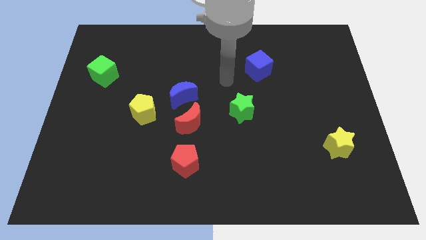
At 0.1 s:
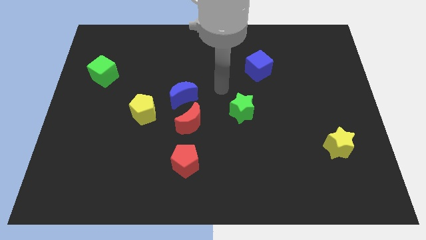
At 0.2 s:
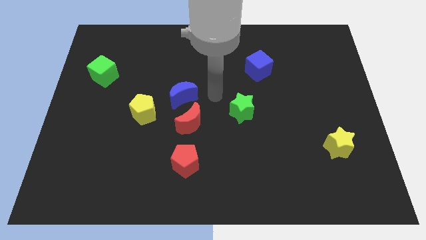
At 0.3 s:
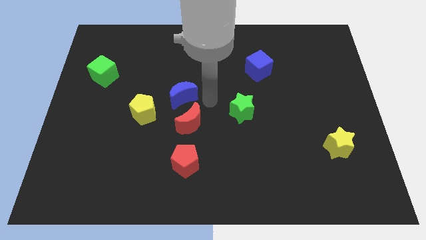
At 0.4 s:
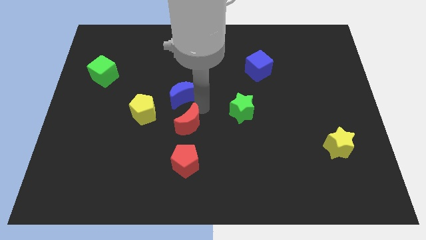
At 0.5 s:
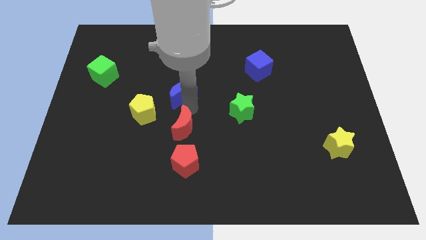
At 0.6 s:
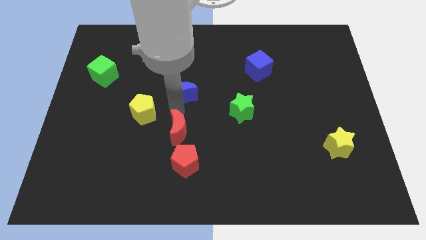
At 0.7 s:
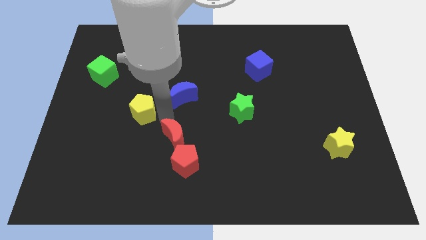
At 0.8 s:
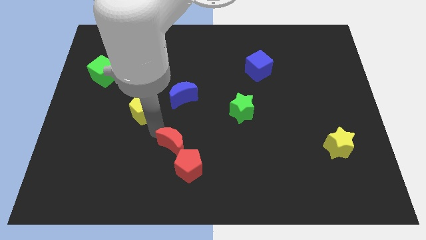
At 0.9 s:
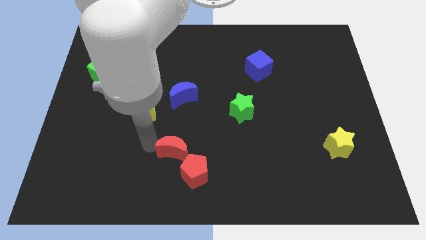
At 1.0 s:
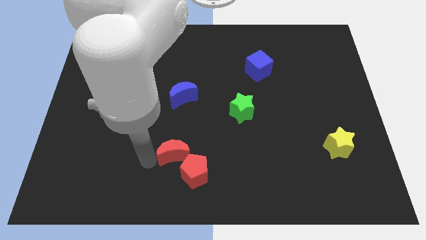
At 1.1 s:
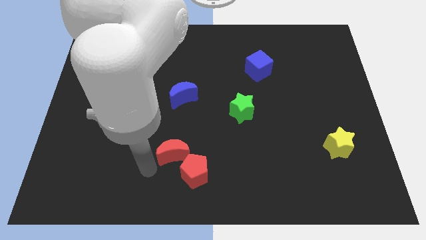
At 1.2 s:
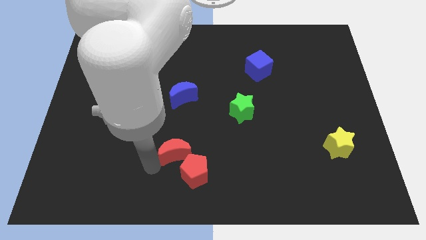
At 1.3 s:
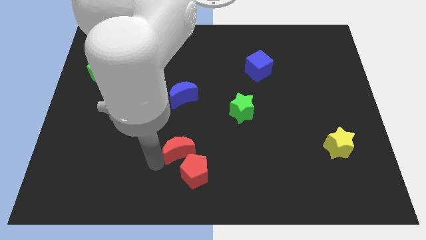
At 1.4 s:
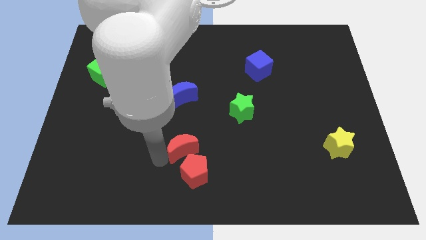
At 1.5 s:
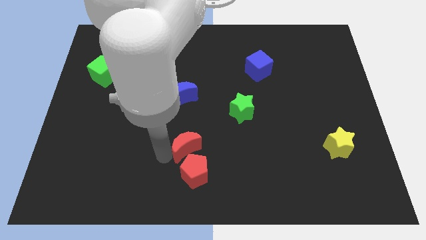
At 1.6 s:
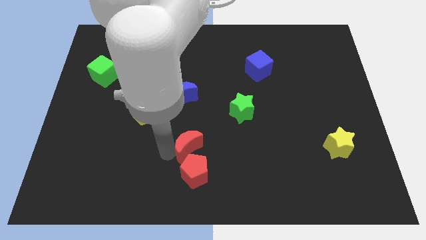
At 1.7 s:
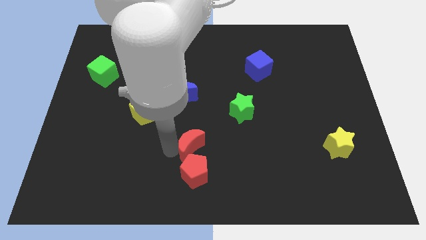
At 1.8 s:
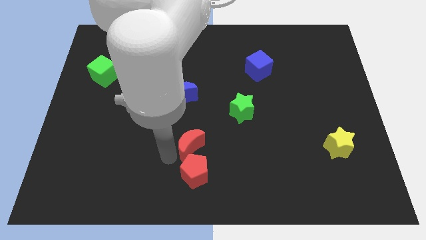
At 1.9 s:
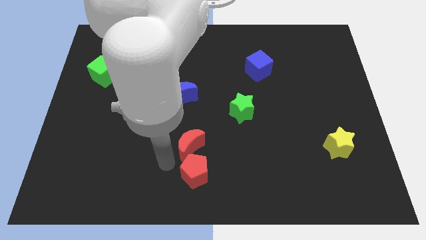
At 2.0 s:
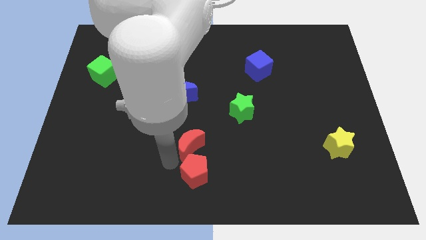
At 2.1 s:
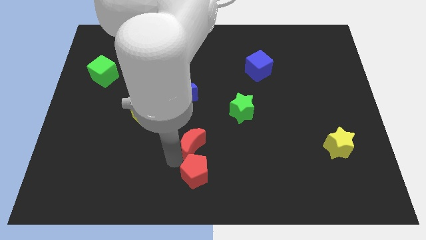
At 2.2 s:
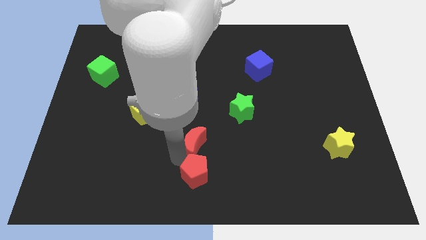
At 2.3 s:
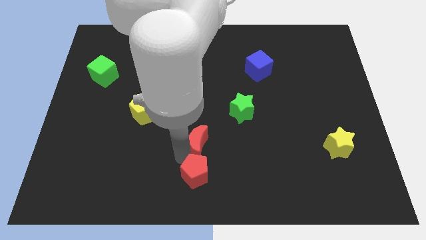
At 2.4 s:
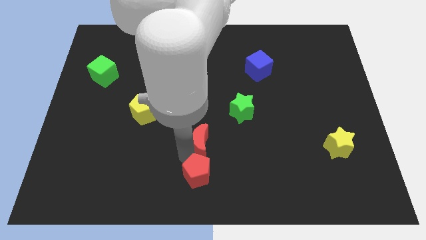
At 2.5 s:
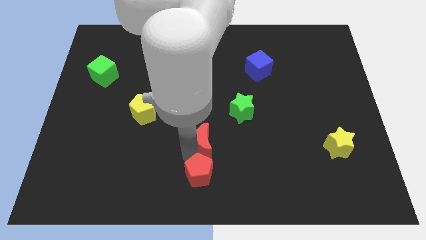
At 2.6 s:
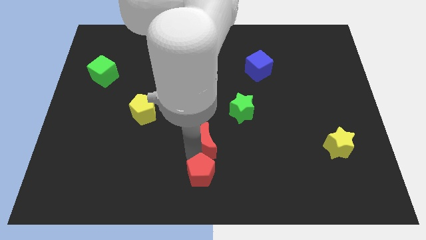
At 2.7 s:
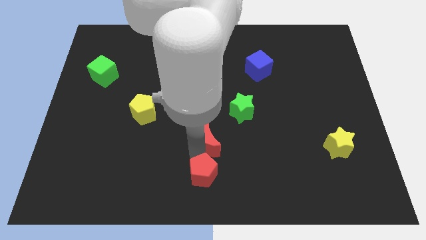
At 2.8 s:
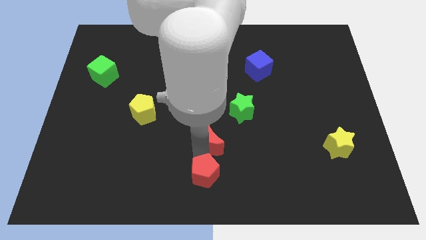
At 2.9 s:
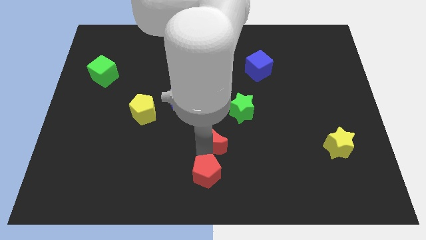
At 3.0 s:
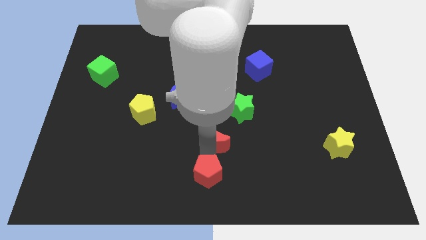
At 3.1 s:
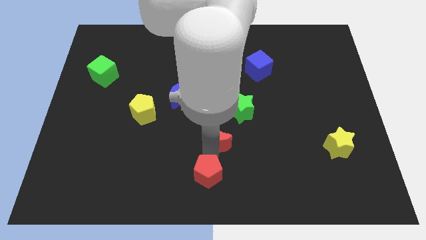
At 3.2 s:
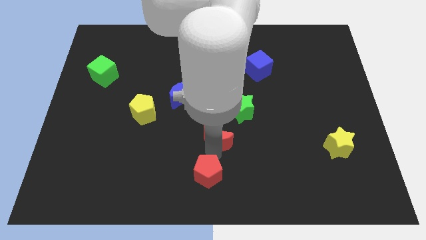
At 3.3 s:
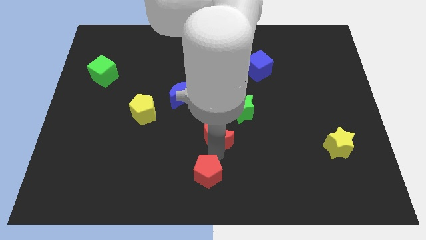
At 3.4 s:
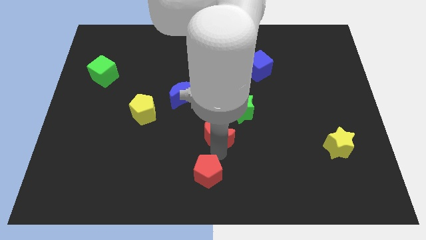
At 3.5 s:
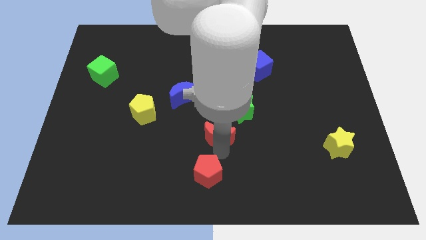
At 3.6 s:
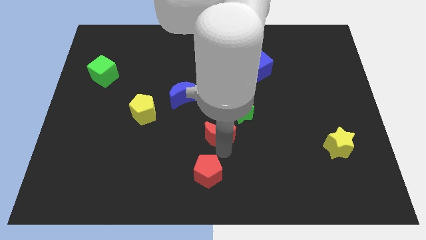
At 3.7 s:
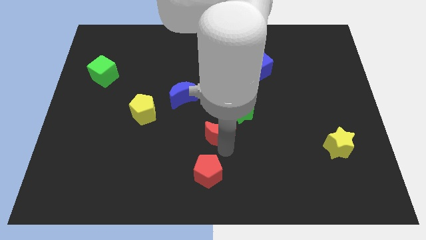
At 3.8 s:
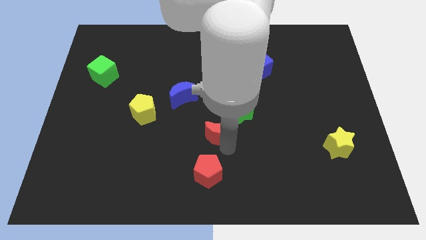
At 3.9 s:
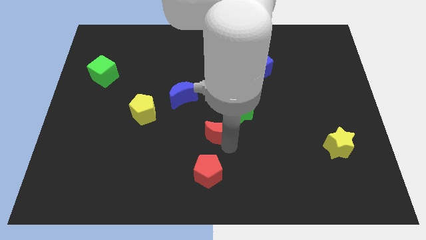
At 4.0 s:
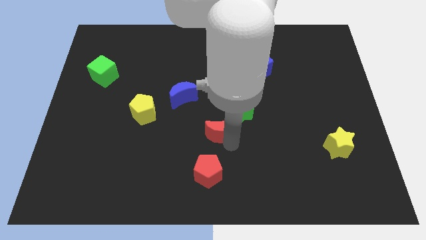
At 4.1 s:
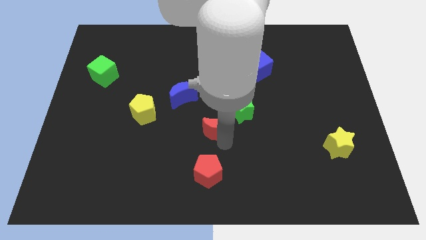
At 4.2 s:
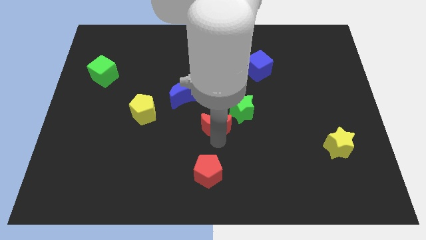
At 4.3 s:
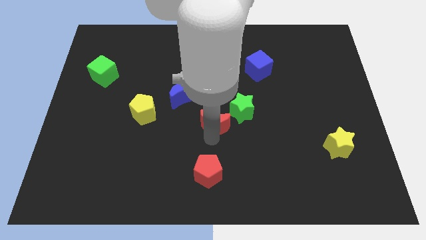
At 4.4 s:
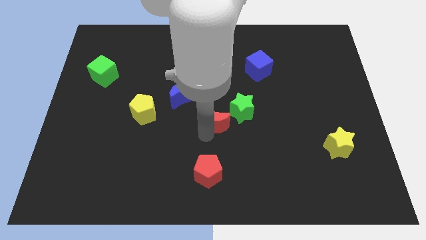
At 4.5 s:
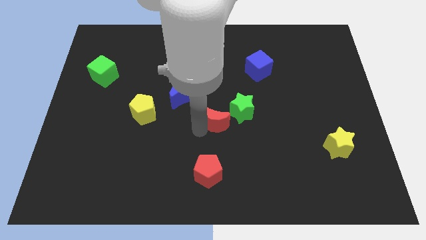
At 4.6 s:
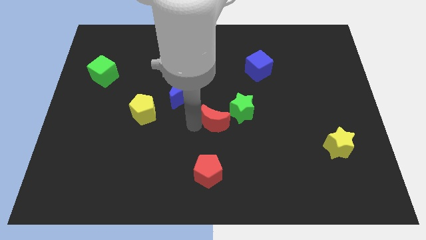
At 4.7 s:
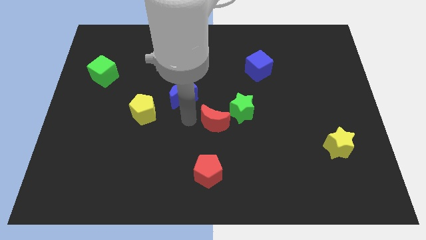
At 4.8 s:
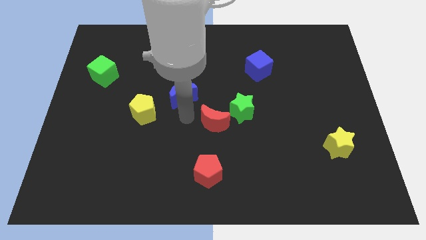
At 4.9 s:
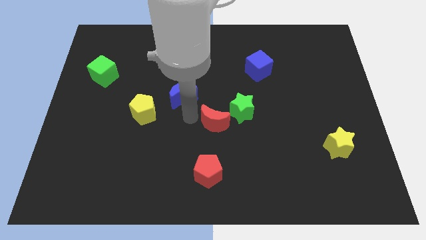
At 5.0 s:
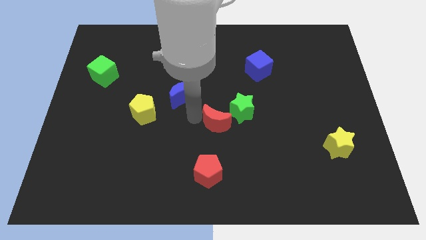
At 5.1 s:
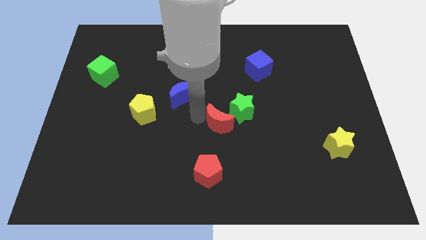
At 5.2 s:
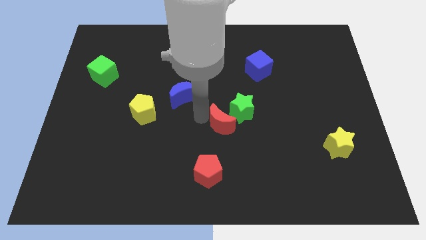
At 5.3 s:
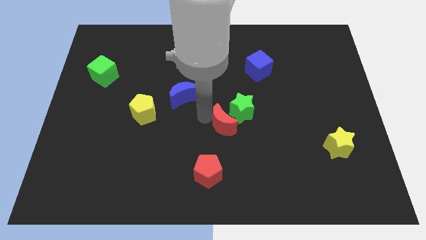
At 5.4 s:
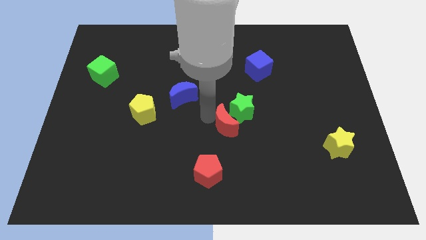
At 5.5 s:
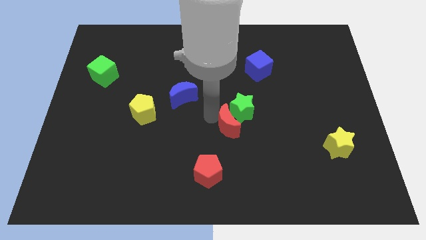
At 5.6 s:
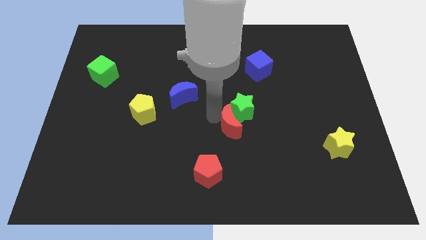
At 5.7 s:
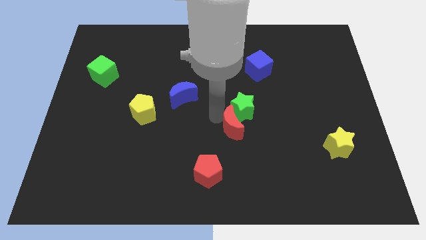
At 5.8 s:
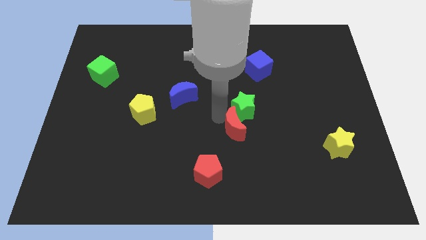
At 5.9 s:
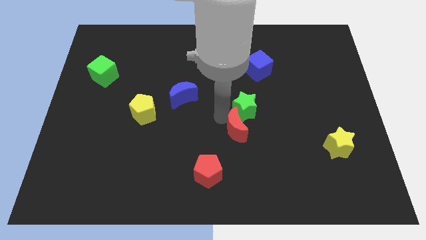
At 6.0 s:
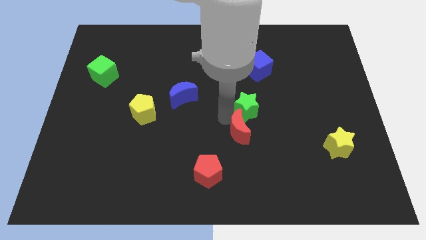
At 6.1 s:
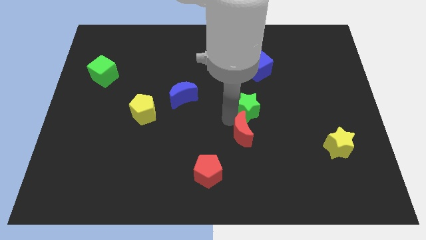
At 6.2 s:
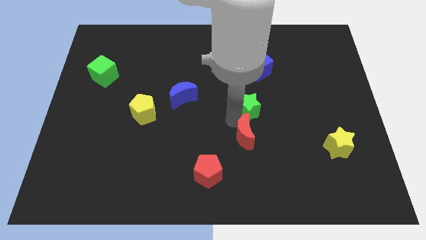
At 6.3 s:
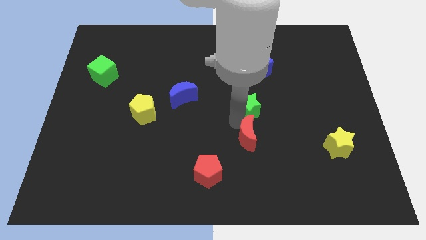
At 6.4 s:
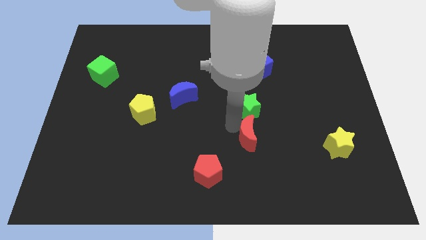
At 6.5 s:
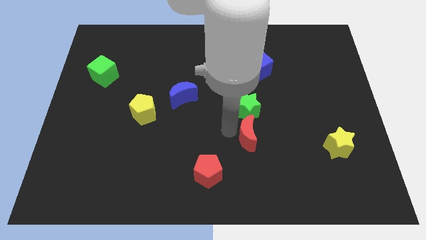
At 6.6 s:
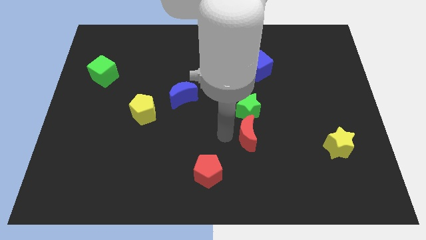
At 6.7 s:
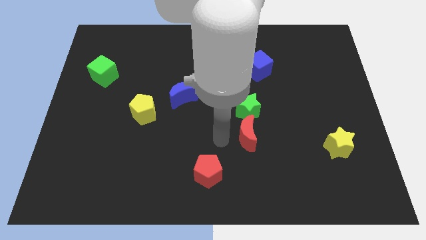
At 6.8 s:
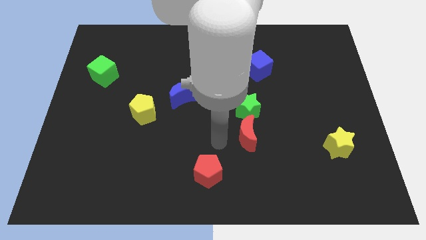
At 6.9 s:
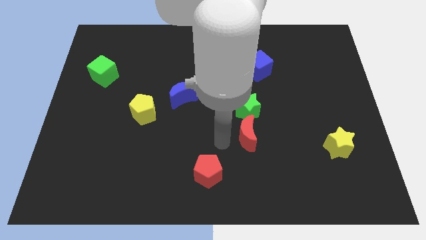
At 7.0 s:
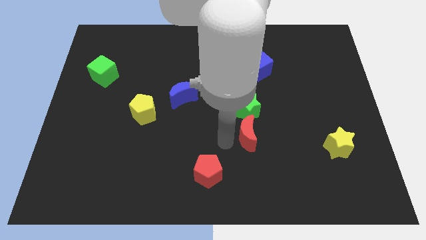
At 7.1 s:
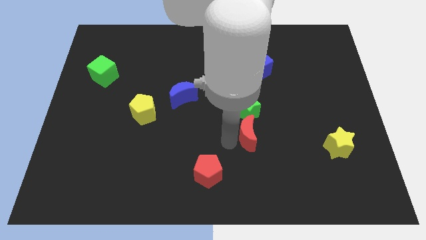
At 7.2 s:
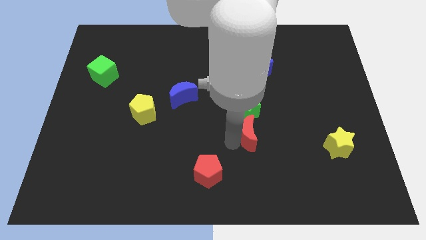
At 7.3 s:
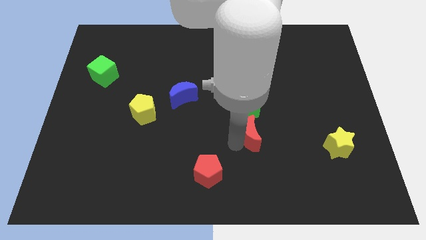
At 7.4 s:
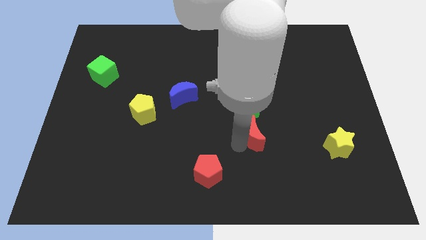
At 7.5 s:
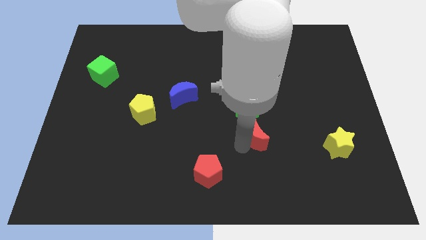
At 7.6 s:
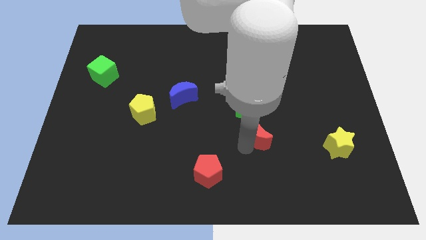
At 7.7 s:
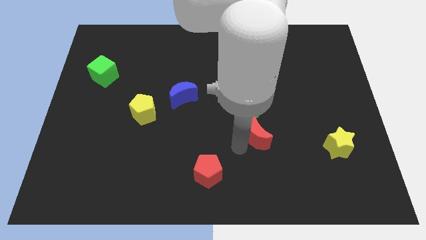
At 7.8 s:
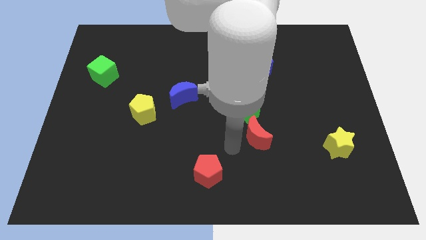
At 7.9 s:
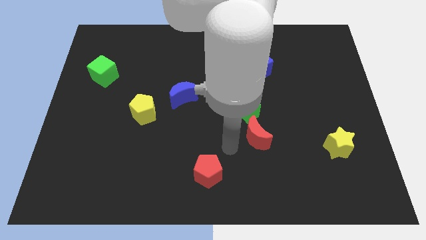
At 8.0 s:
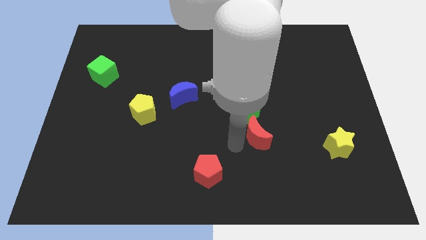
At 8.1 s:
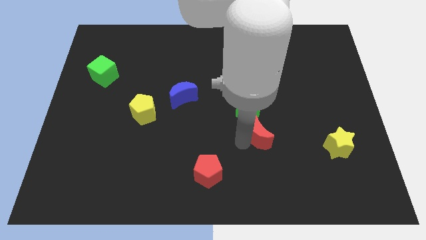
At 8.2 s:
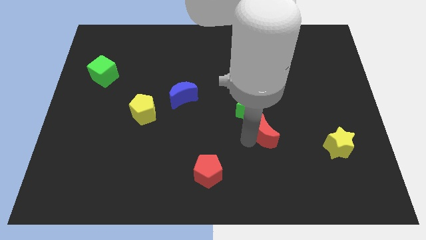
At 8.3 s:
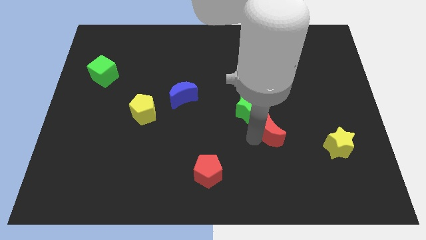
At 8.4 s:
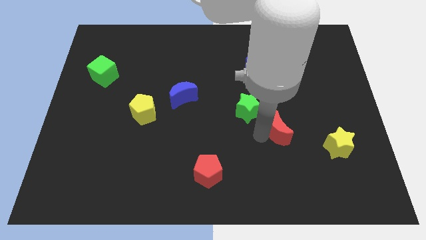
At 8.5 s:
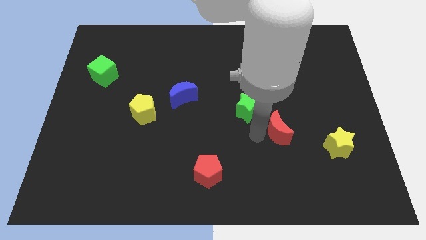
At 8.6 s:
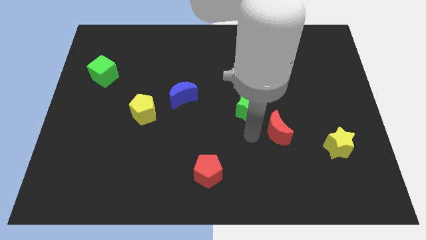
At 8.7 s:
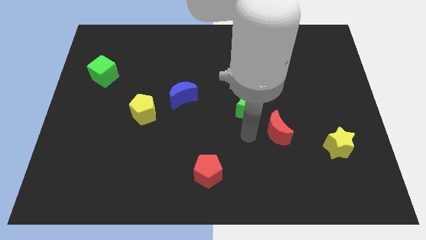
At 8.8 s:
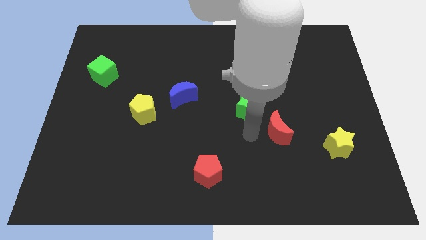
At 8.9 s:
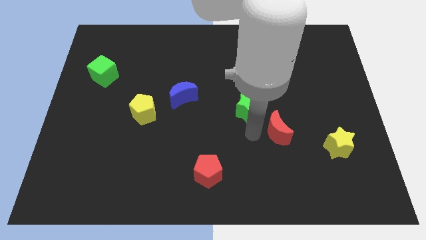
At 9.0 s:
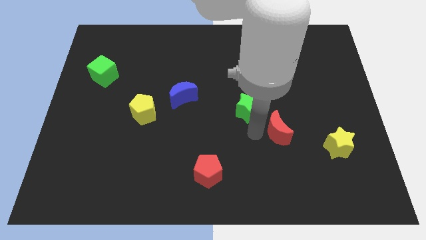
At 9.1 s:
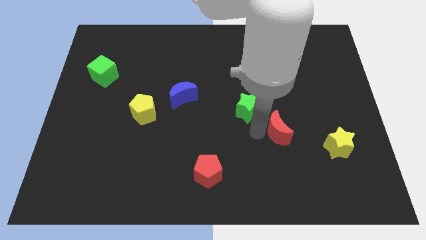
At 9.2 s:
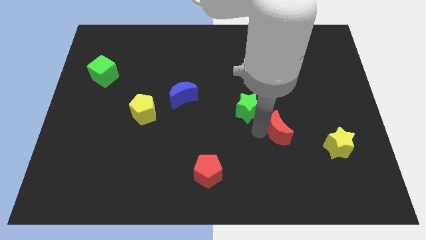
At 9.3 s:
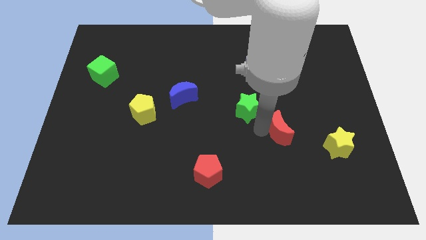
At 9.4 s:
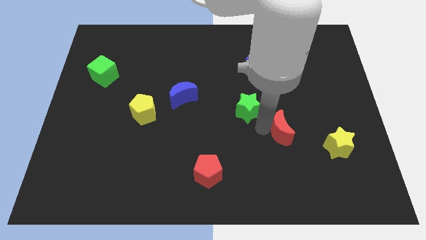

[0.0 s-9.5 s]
push the red moon to the right
